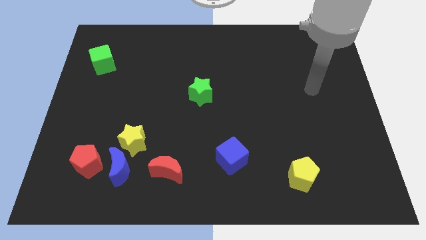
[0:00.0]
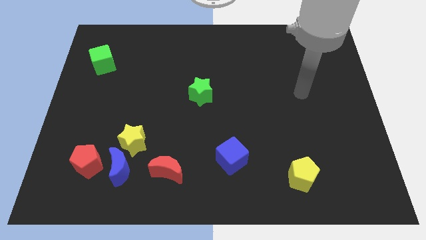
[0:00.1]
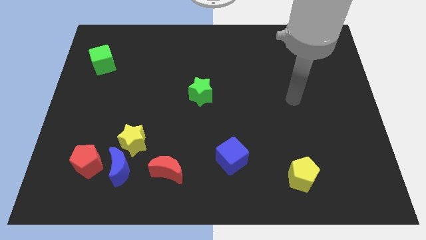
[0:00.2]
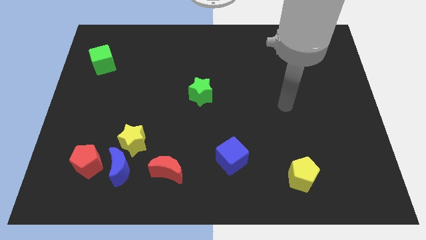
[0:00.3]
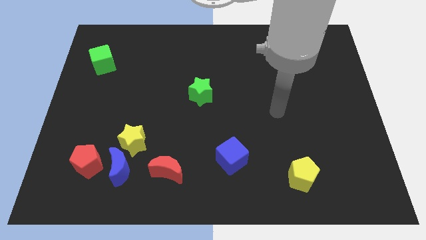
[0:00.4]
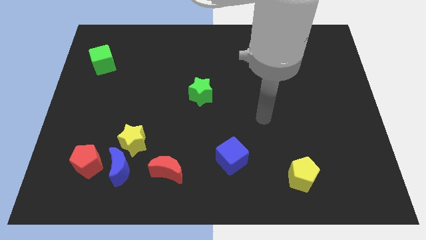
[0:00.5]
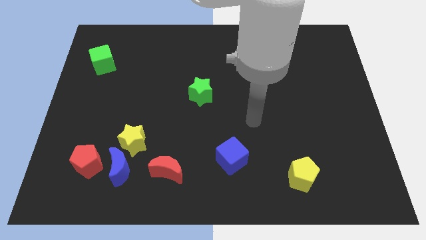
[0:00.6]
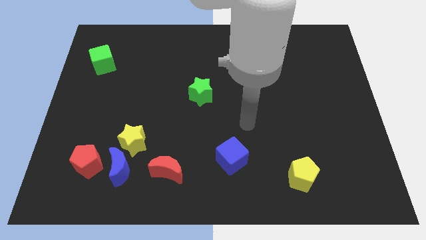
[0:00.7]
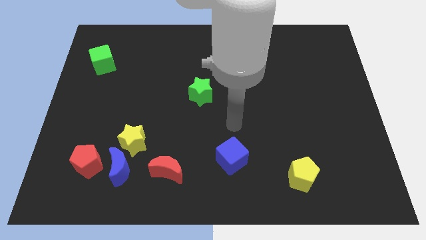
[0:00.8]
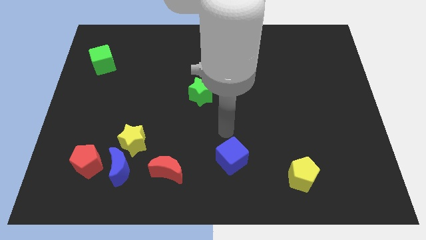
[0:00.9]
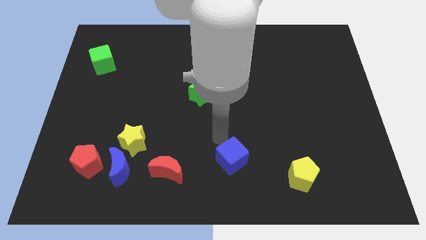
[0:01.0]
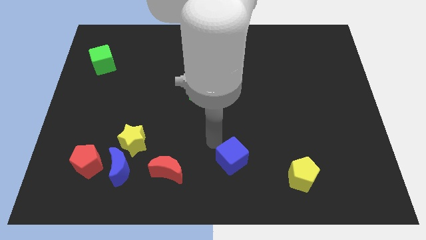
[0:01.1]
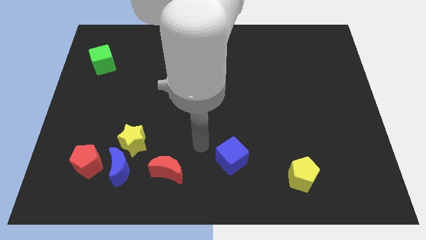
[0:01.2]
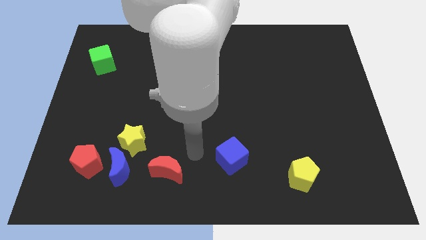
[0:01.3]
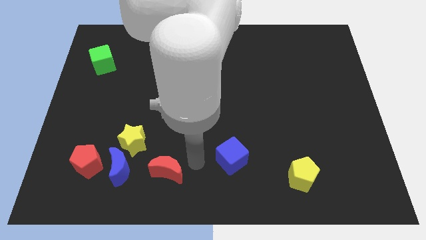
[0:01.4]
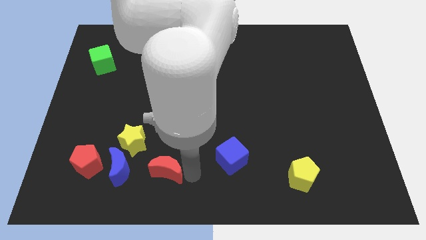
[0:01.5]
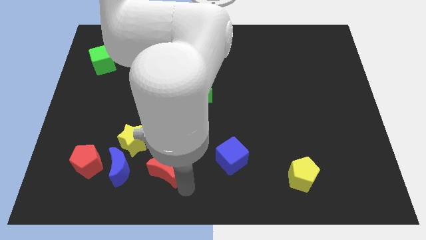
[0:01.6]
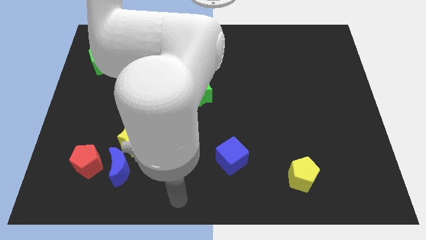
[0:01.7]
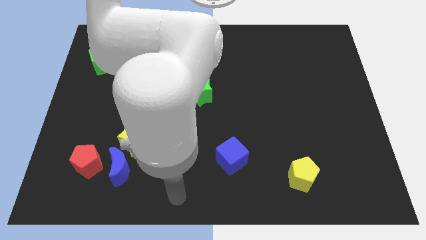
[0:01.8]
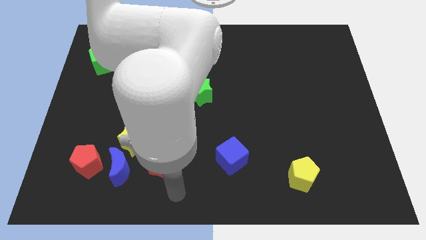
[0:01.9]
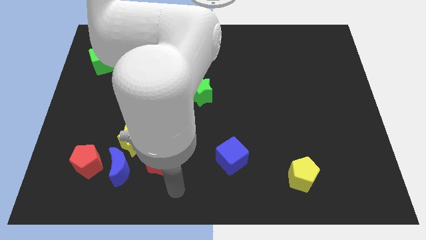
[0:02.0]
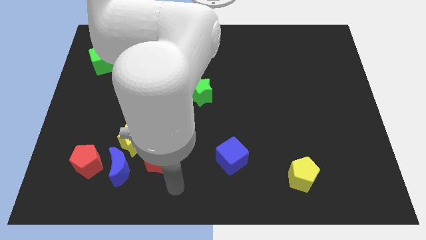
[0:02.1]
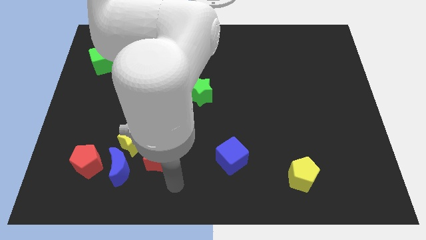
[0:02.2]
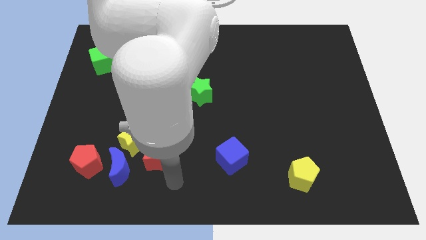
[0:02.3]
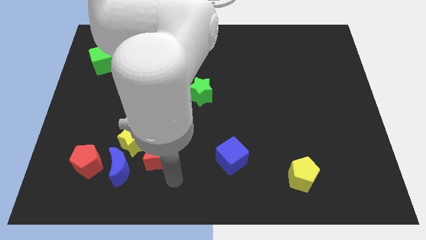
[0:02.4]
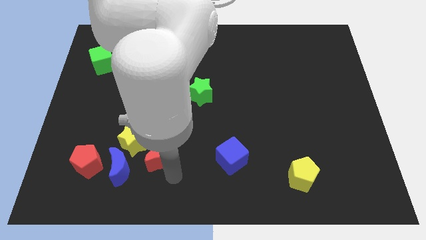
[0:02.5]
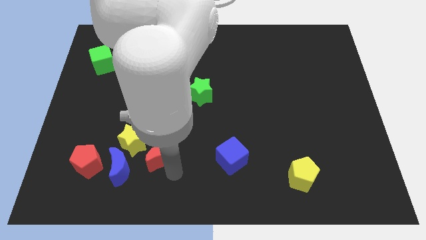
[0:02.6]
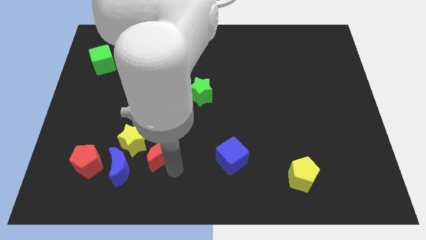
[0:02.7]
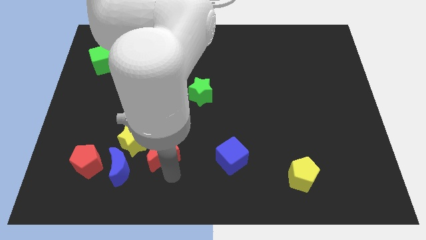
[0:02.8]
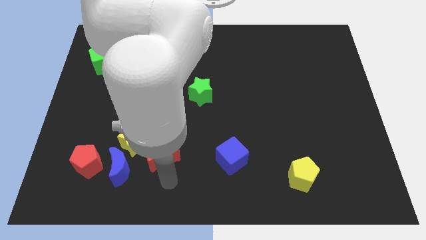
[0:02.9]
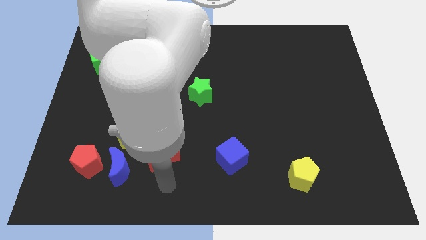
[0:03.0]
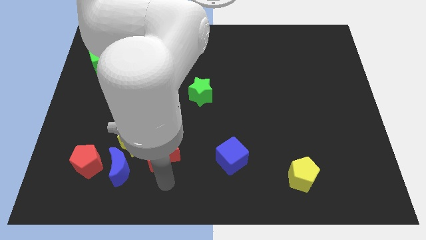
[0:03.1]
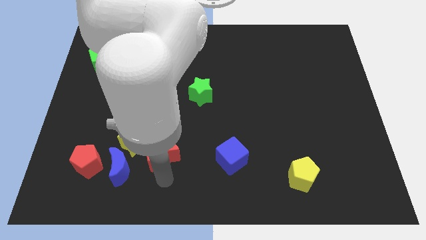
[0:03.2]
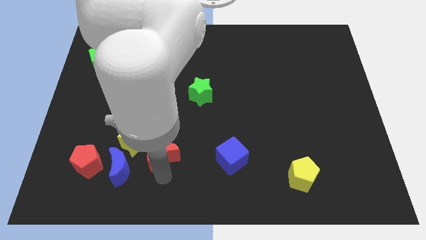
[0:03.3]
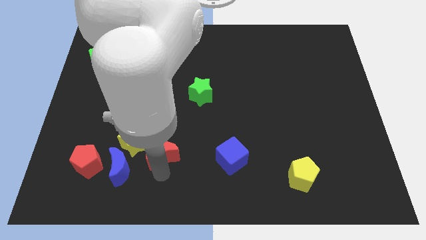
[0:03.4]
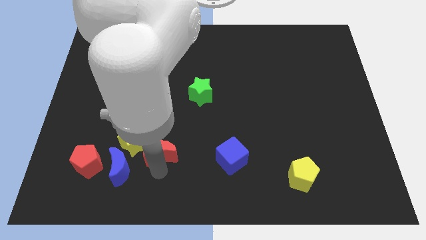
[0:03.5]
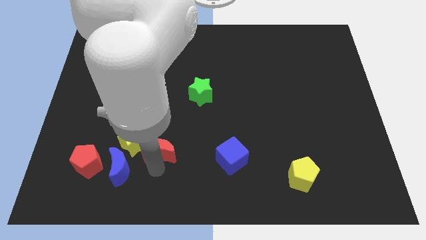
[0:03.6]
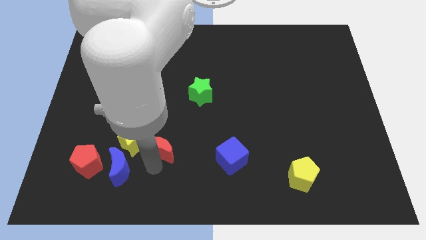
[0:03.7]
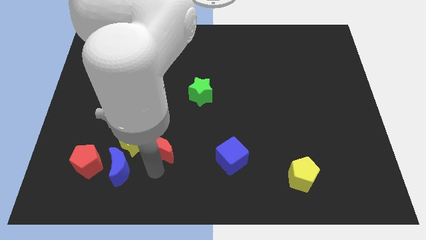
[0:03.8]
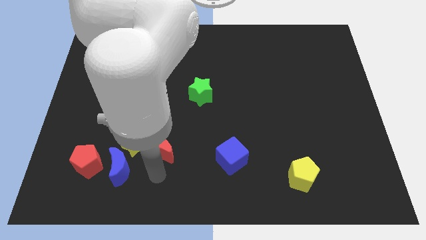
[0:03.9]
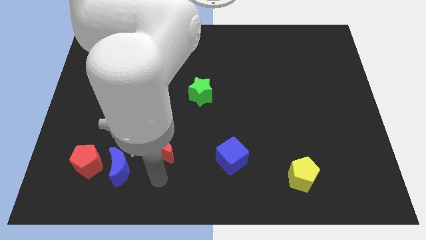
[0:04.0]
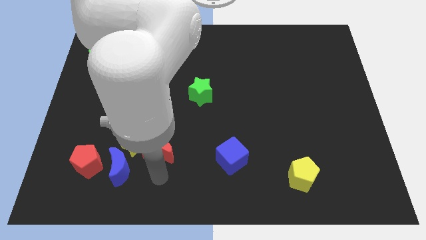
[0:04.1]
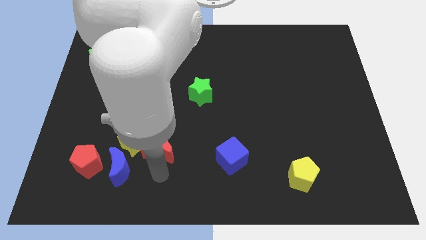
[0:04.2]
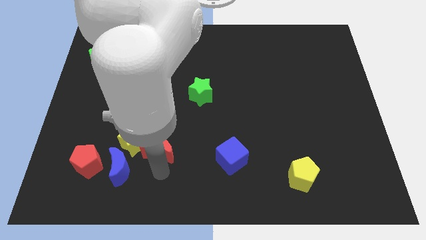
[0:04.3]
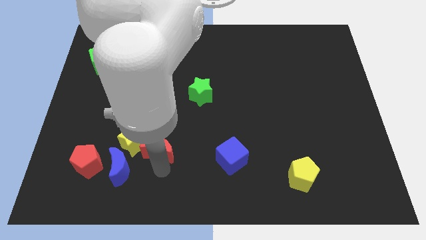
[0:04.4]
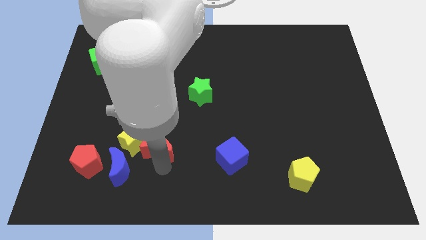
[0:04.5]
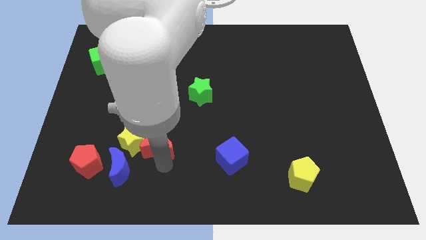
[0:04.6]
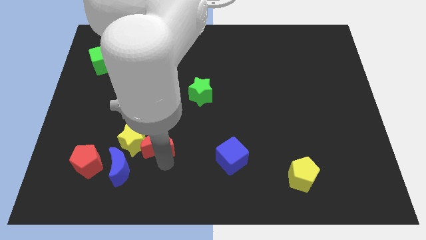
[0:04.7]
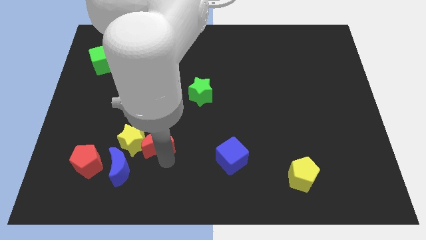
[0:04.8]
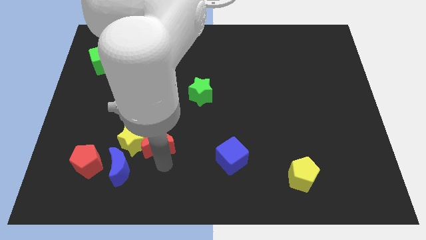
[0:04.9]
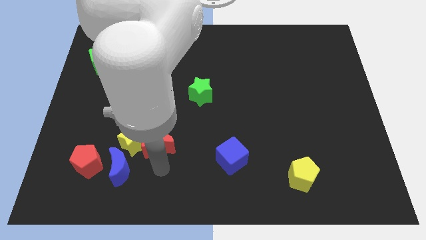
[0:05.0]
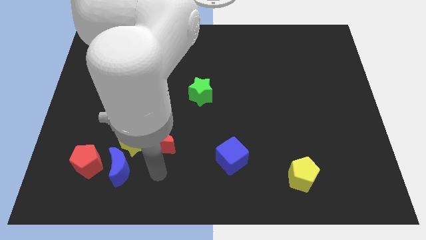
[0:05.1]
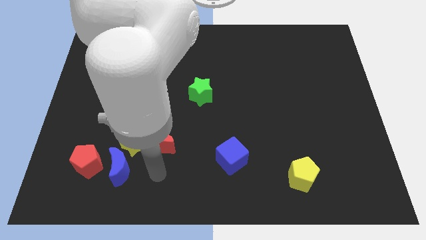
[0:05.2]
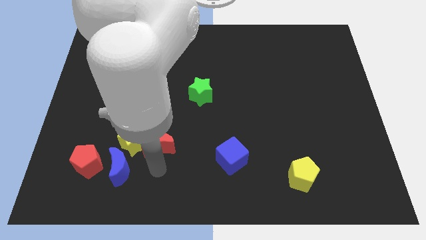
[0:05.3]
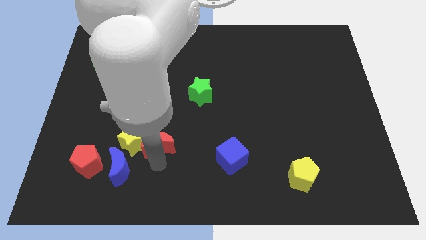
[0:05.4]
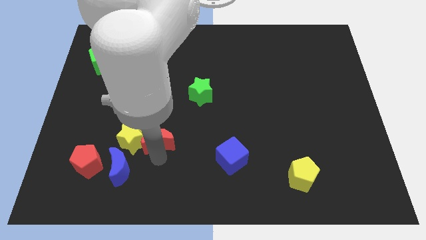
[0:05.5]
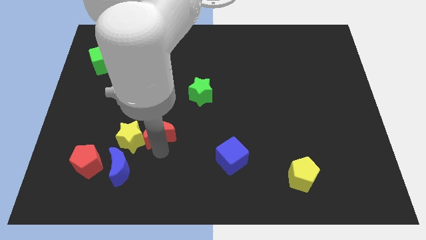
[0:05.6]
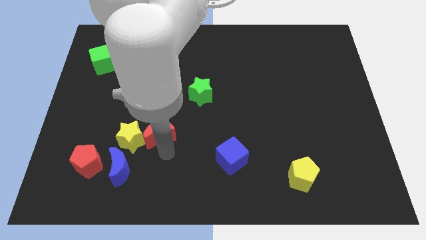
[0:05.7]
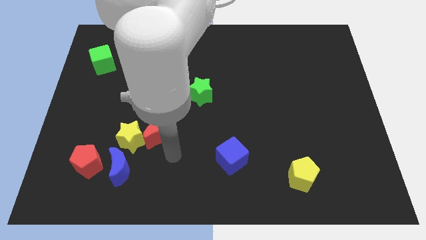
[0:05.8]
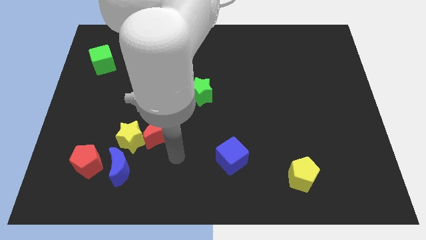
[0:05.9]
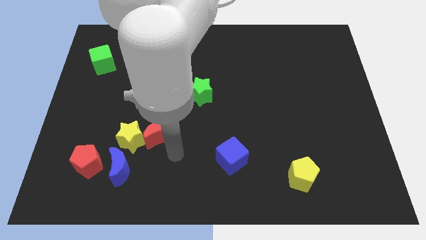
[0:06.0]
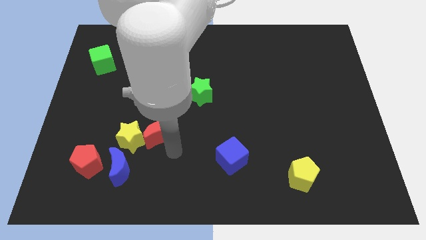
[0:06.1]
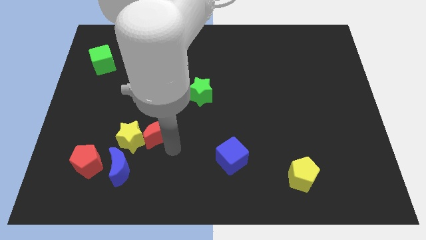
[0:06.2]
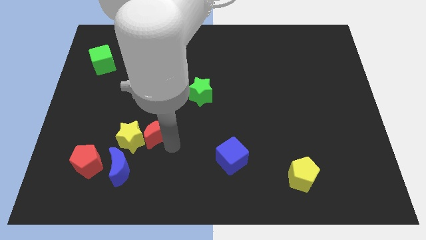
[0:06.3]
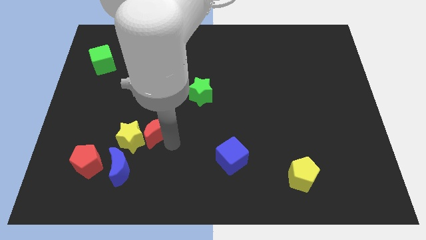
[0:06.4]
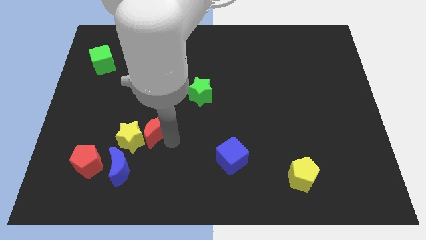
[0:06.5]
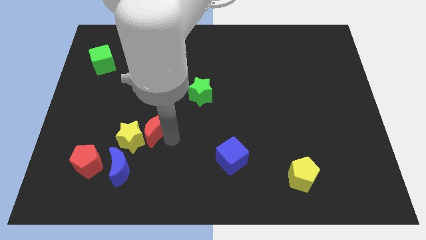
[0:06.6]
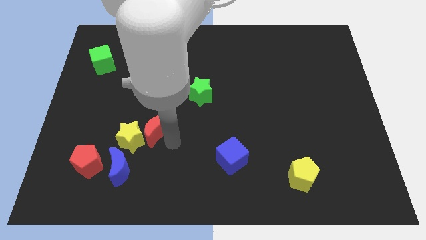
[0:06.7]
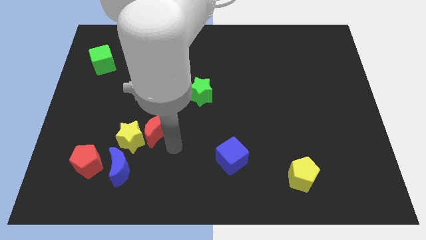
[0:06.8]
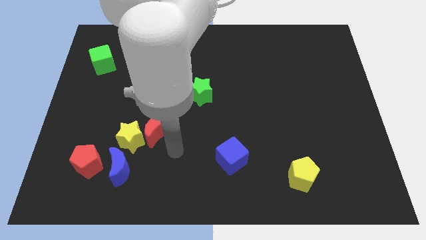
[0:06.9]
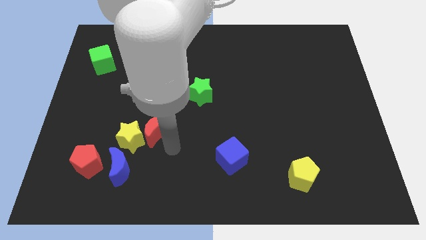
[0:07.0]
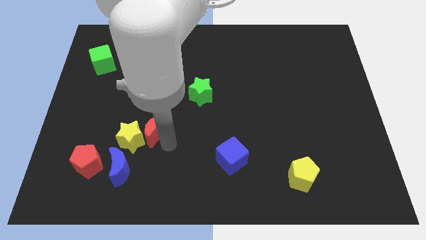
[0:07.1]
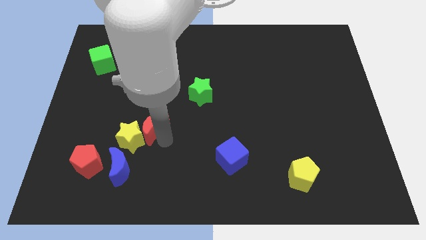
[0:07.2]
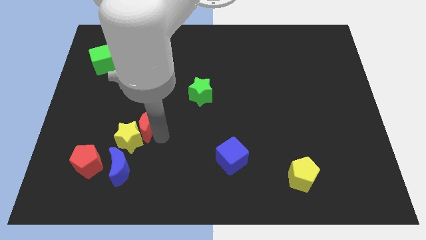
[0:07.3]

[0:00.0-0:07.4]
put the red moon to the top side of the blue moon
